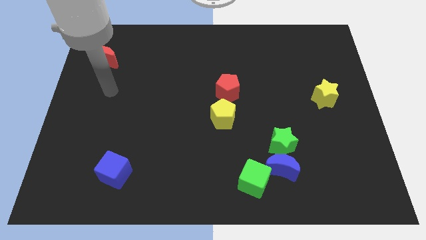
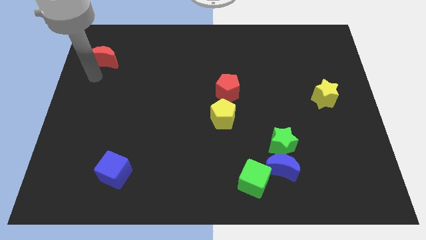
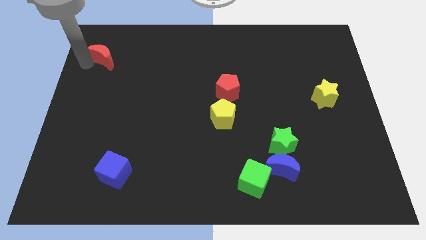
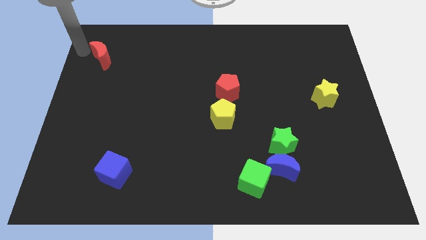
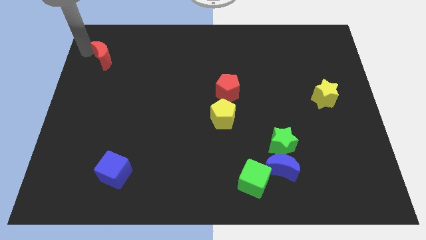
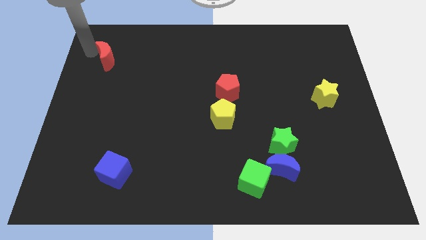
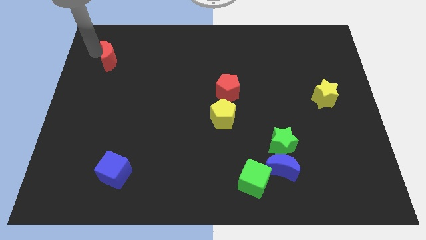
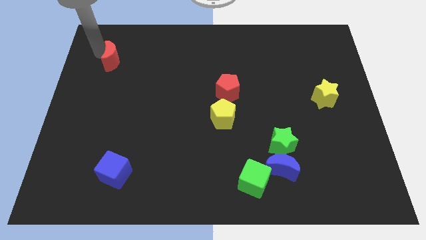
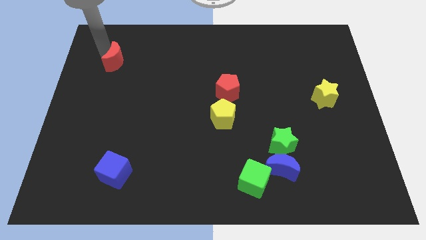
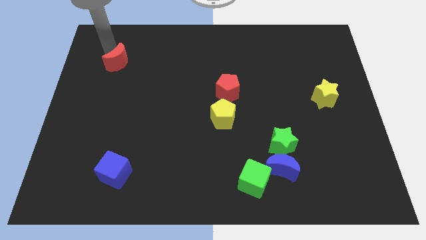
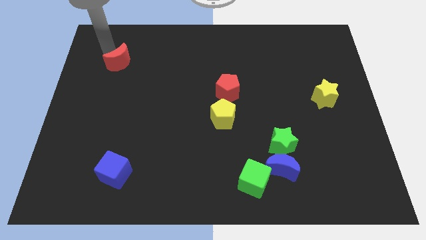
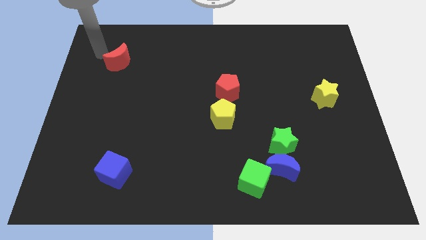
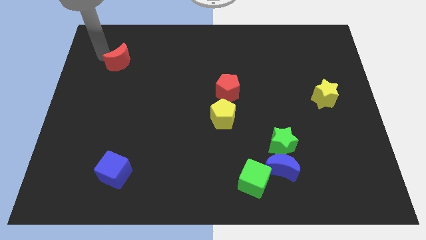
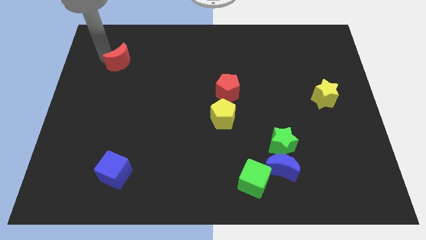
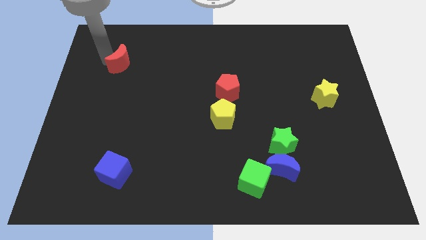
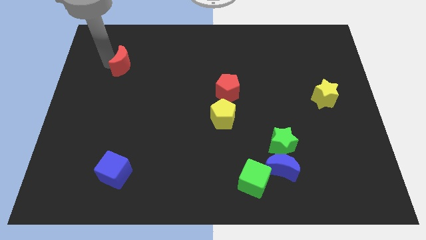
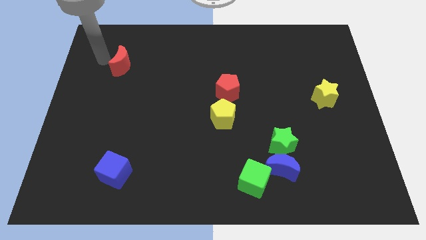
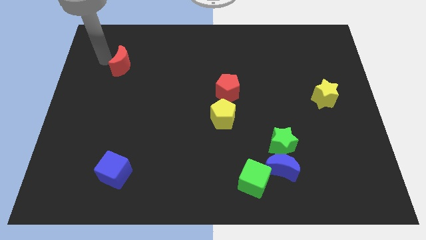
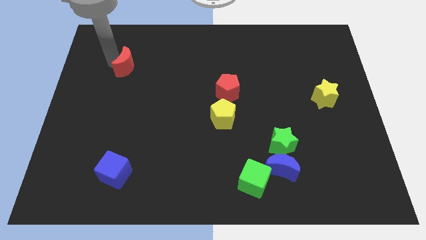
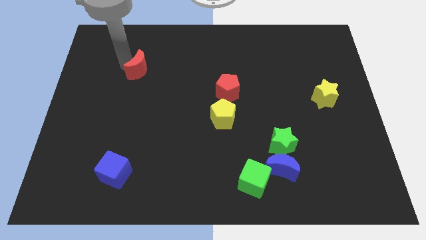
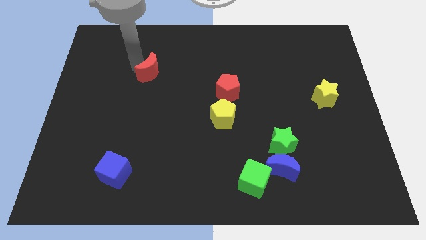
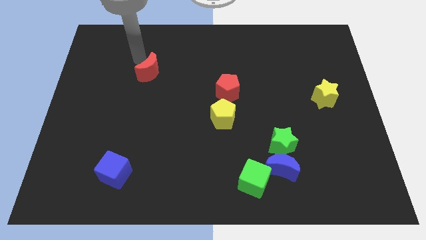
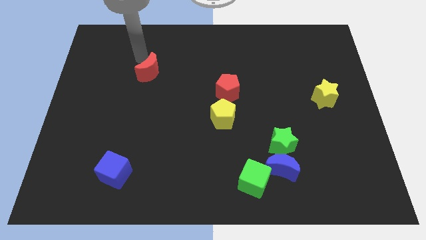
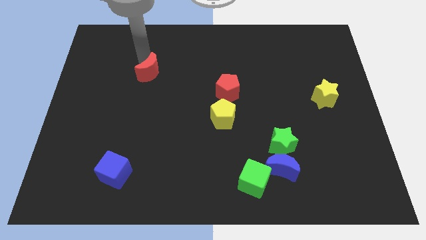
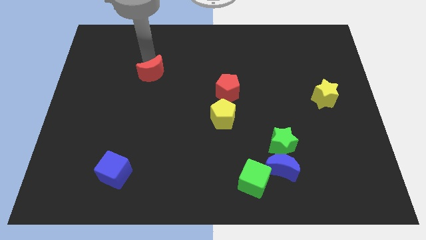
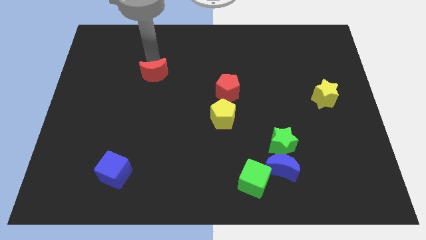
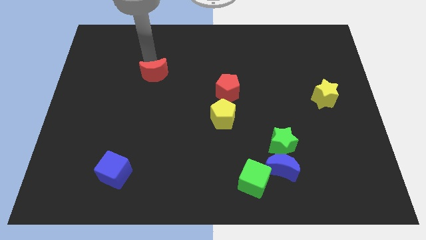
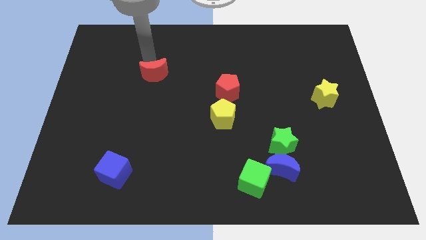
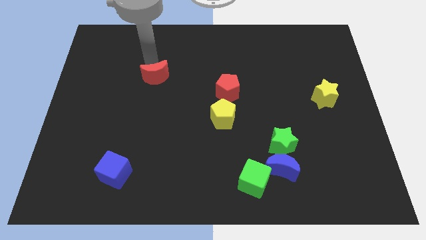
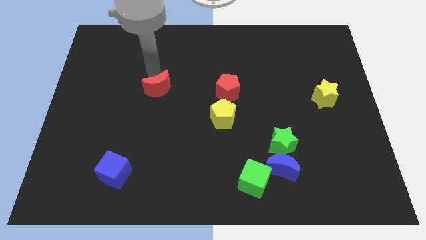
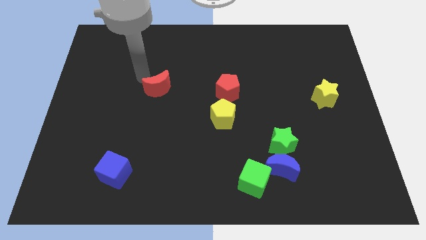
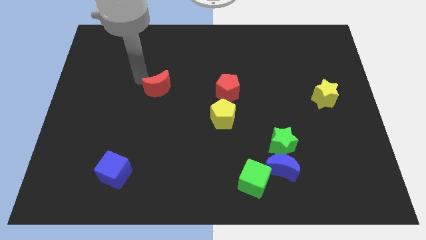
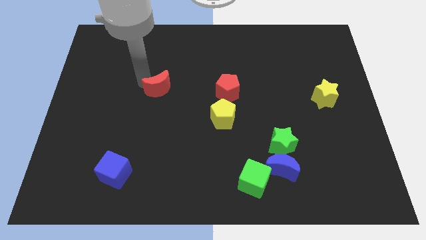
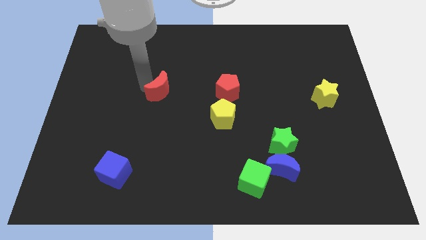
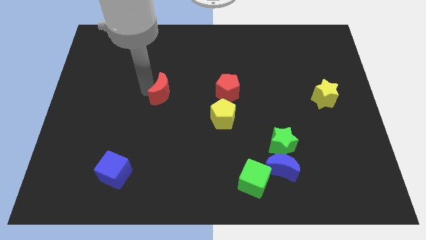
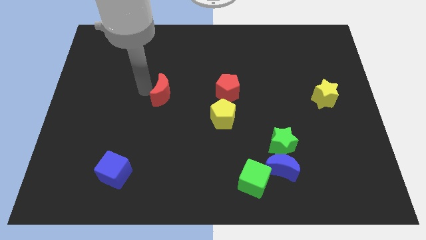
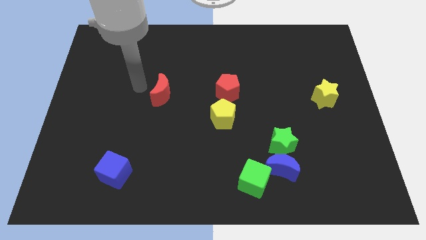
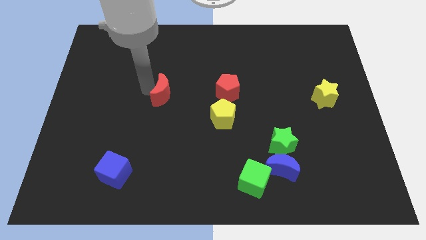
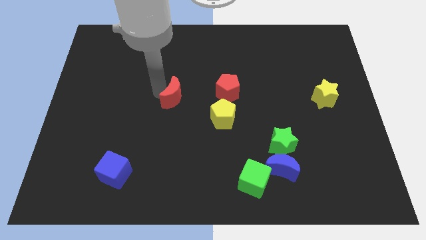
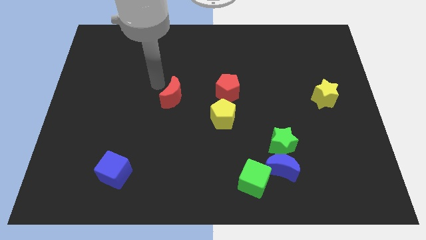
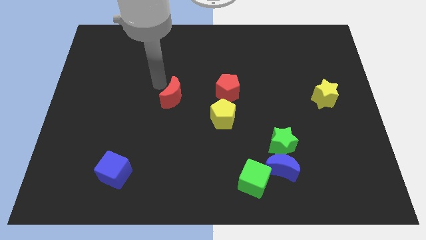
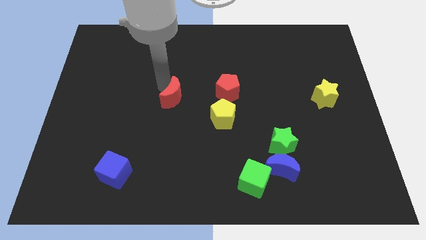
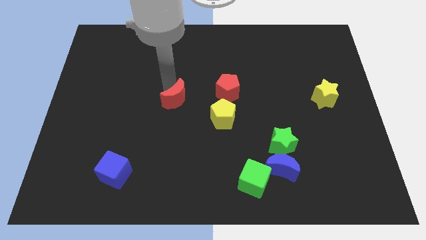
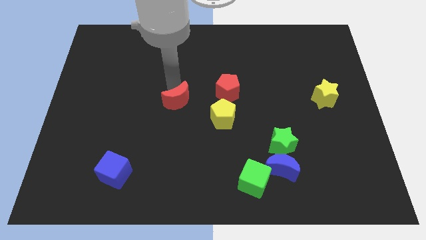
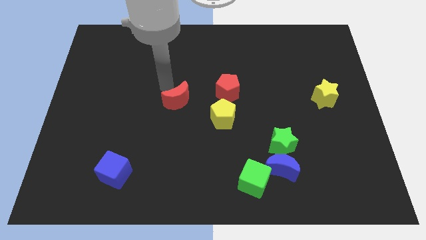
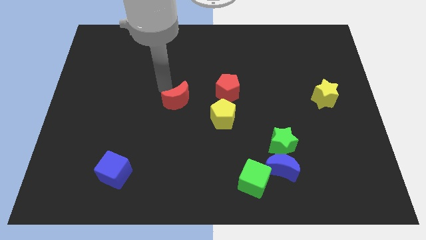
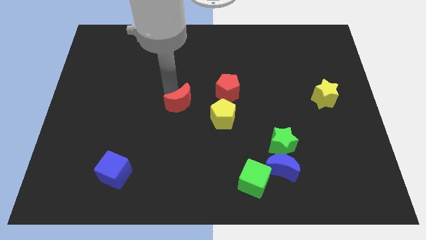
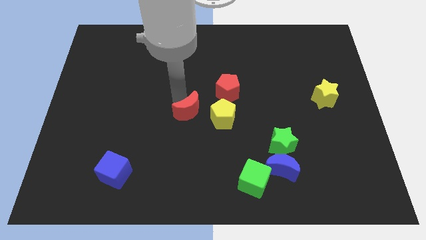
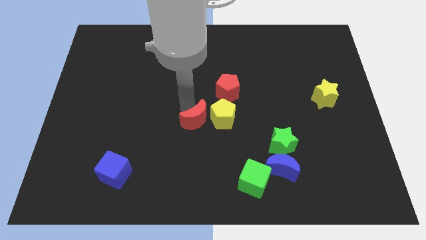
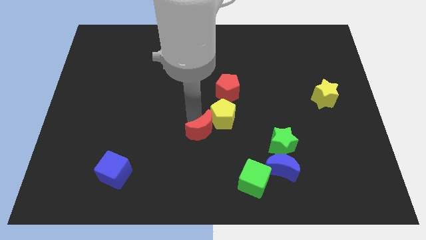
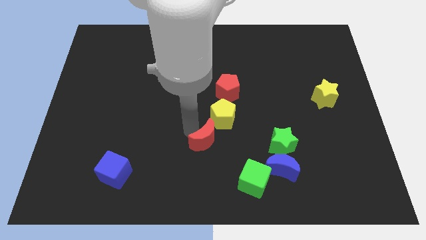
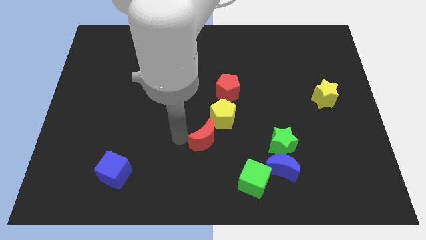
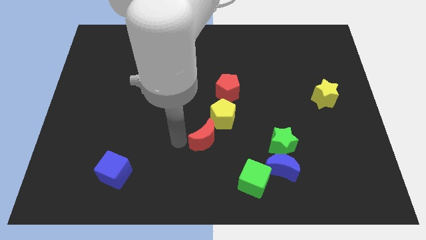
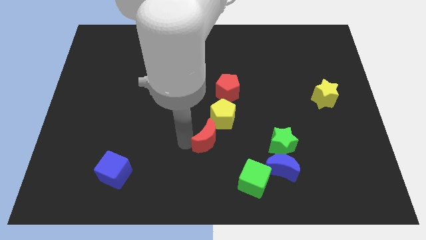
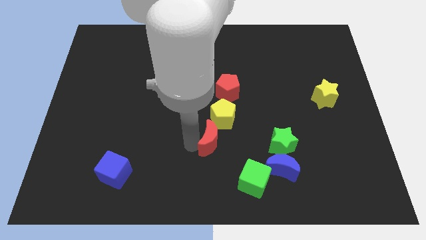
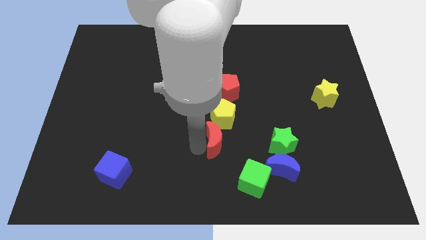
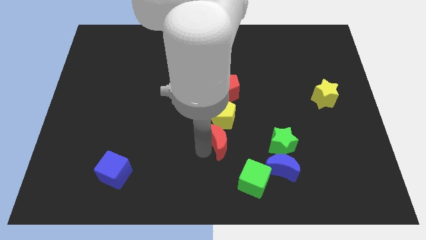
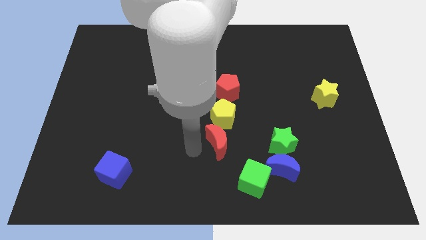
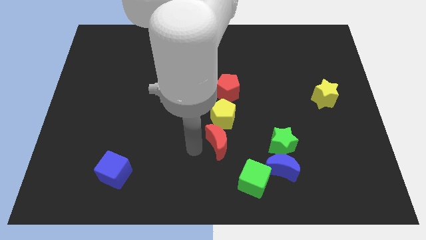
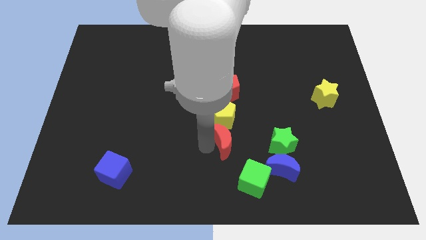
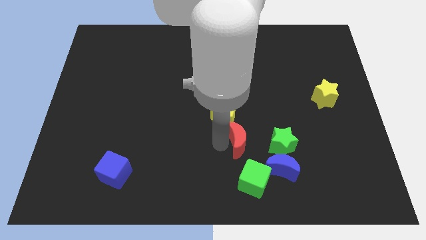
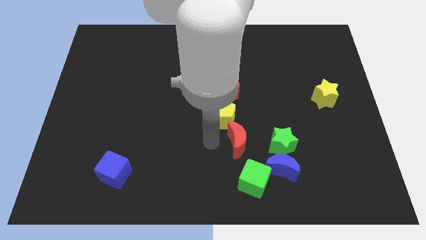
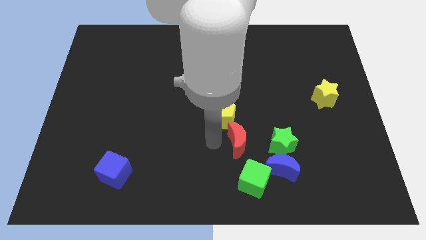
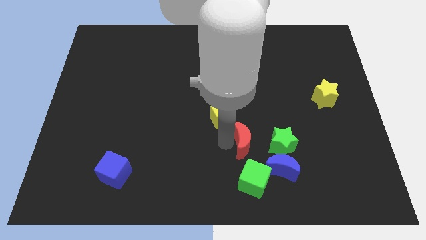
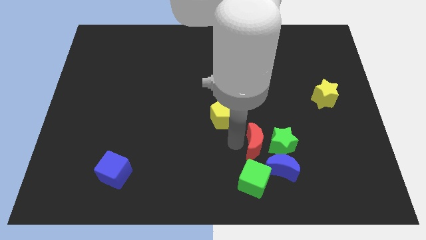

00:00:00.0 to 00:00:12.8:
move the red moon next to the green star

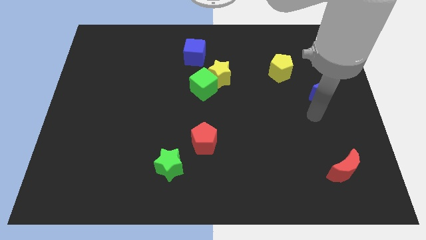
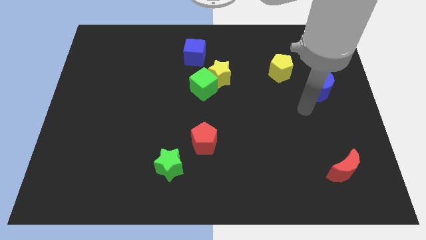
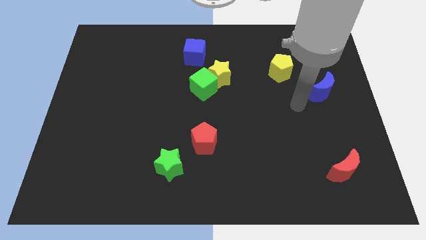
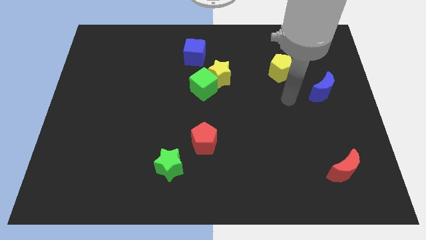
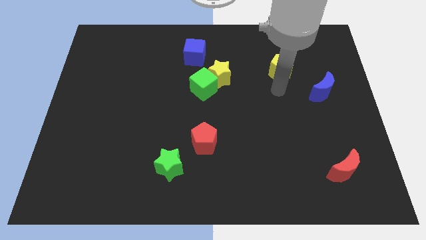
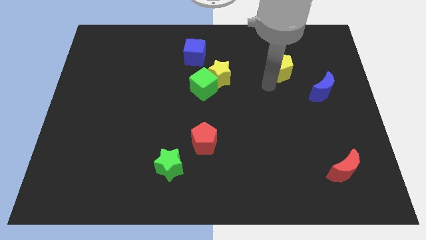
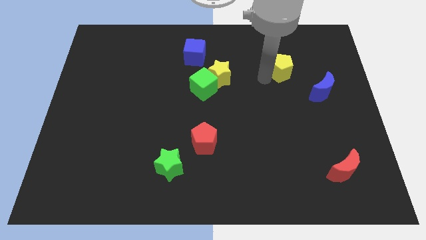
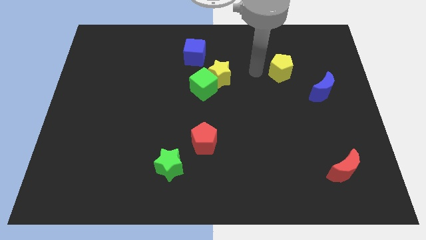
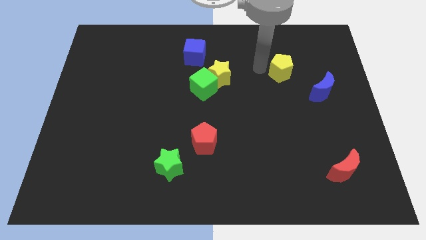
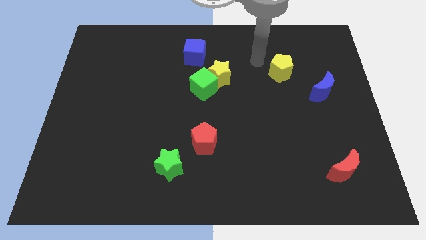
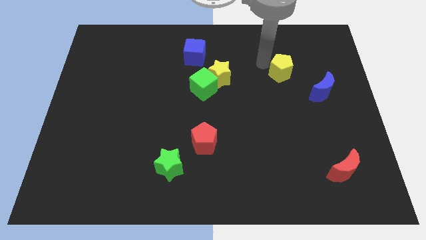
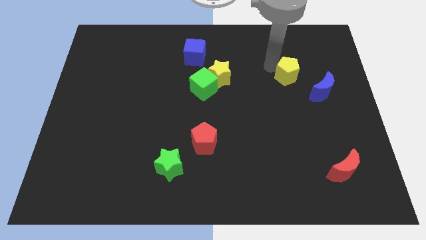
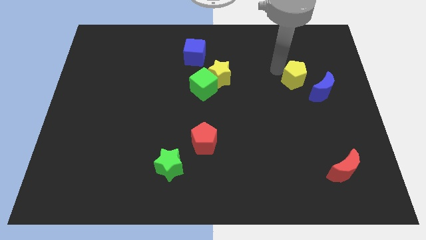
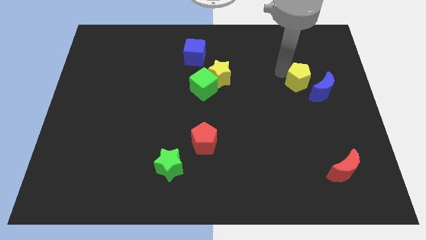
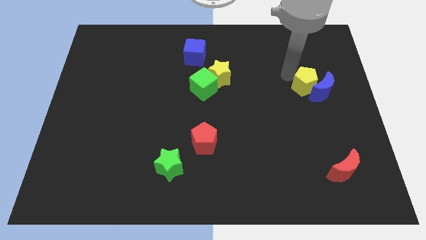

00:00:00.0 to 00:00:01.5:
push the yellow pentagon to the blue moon
